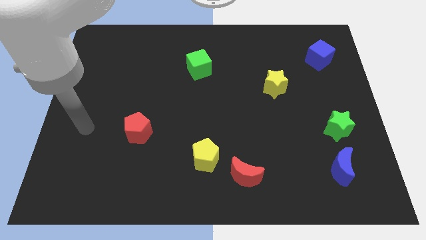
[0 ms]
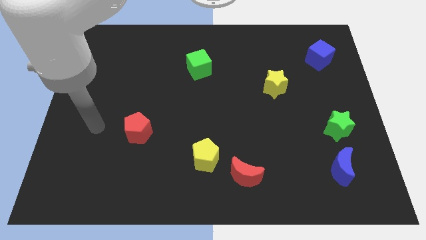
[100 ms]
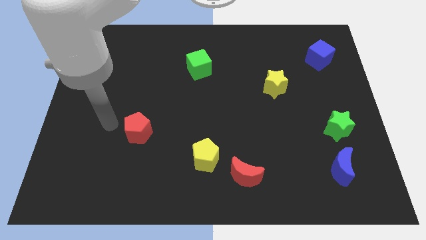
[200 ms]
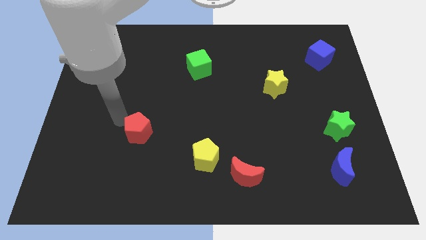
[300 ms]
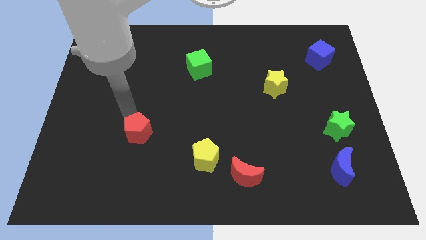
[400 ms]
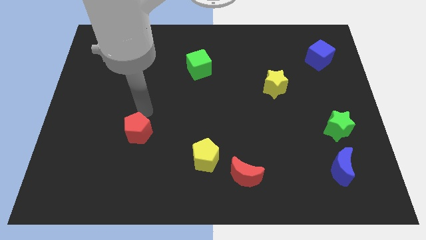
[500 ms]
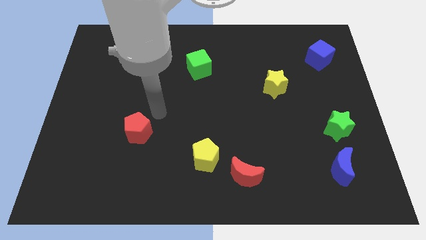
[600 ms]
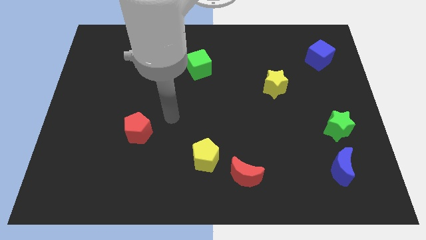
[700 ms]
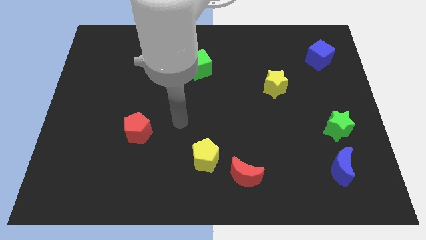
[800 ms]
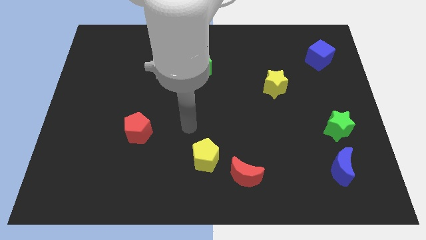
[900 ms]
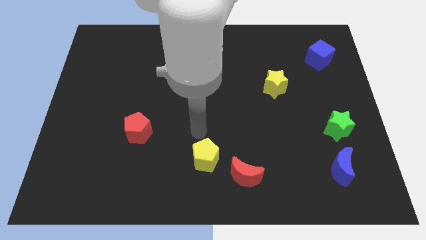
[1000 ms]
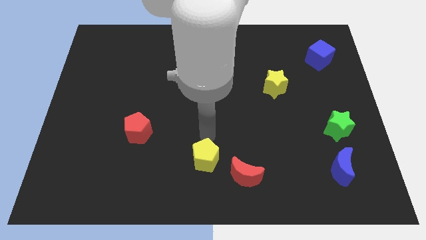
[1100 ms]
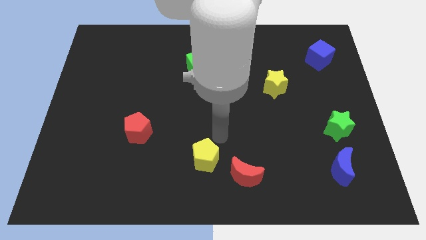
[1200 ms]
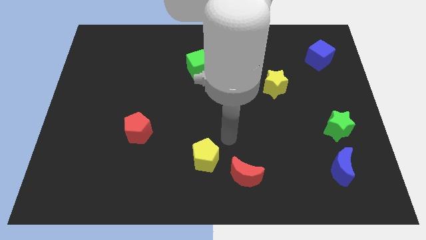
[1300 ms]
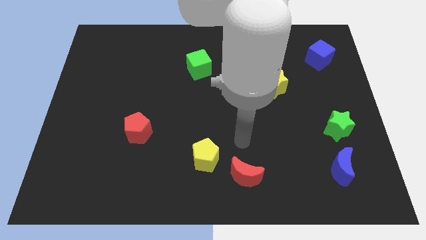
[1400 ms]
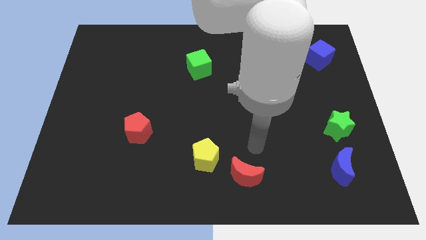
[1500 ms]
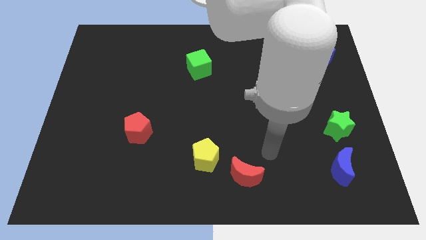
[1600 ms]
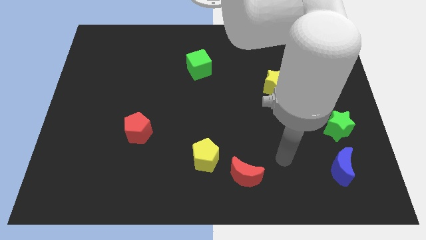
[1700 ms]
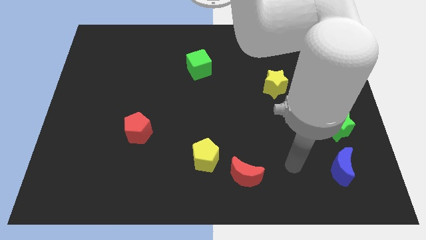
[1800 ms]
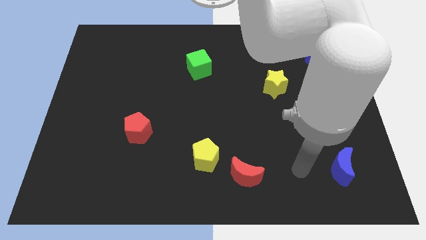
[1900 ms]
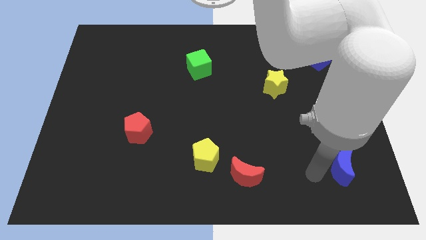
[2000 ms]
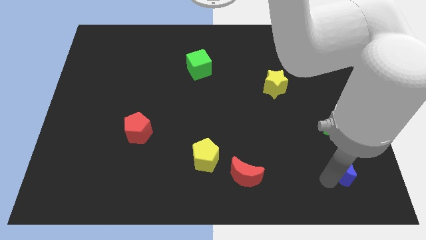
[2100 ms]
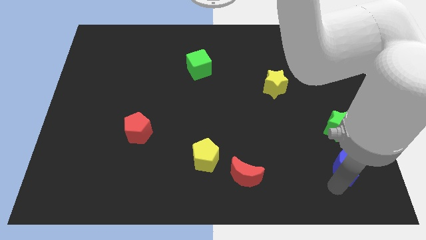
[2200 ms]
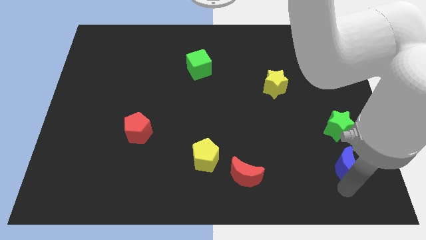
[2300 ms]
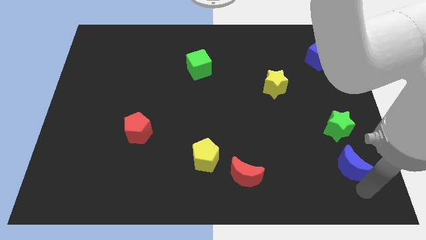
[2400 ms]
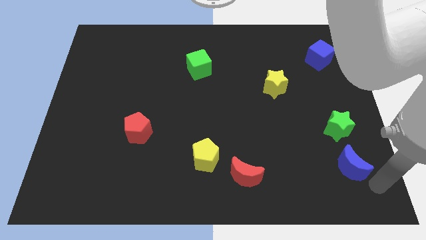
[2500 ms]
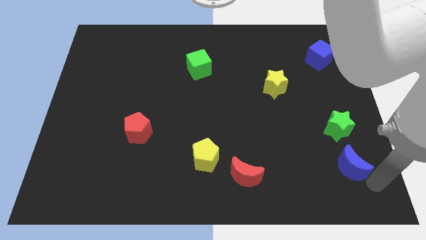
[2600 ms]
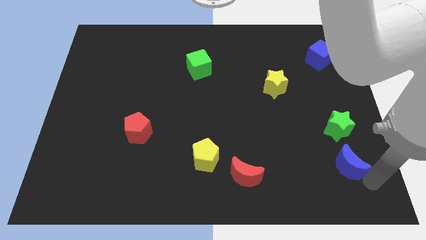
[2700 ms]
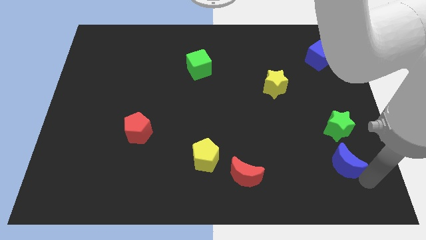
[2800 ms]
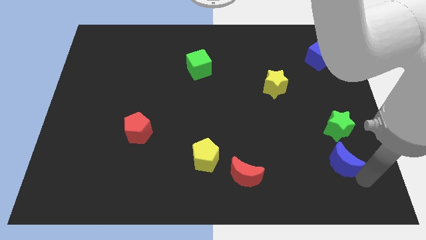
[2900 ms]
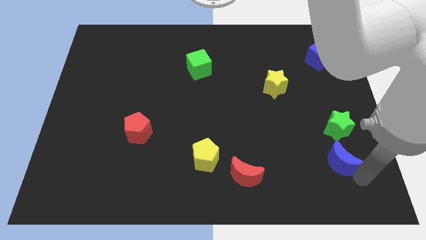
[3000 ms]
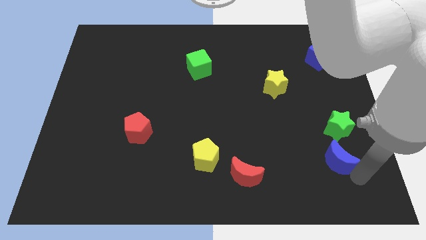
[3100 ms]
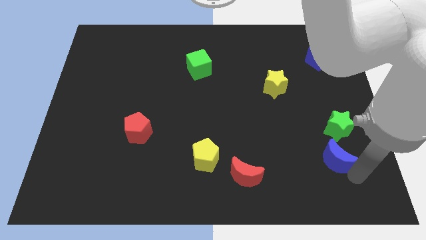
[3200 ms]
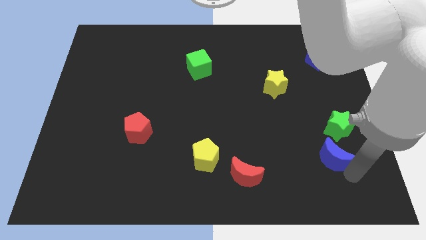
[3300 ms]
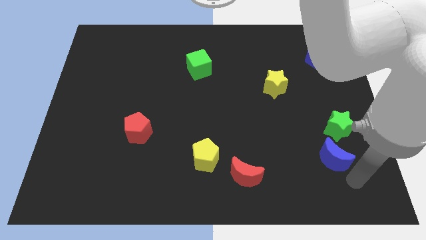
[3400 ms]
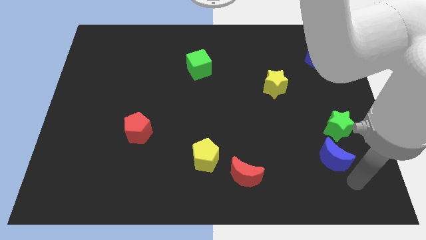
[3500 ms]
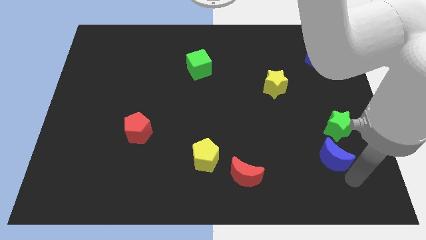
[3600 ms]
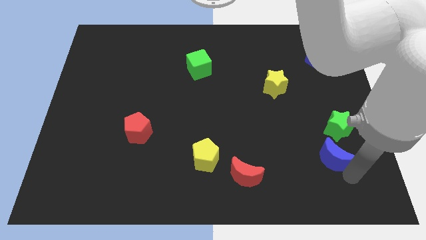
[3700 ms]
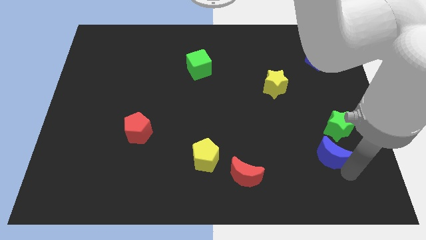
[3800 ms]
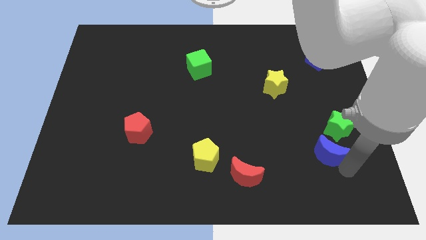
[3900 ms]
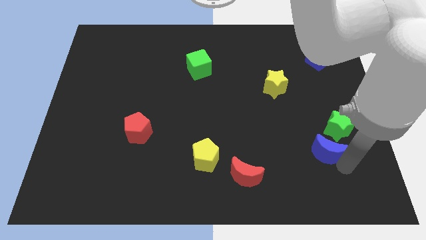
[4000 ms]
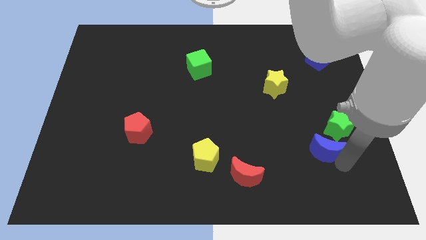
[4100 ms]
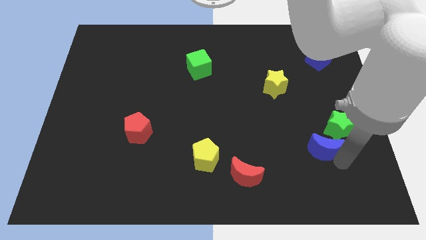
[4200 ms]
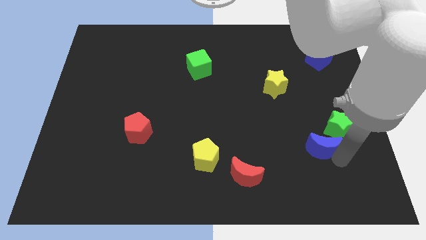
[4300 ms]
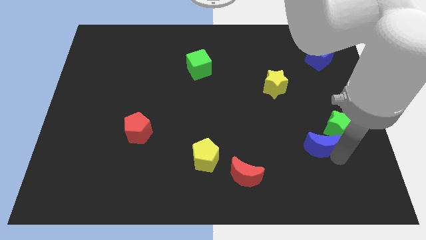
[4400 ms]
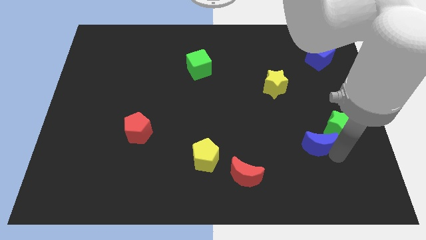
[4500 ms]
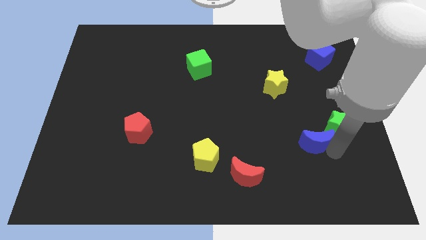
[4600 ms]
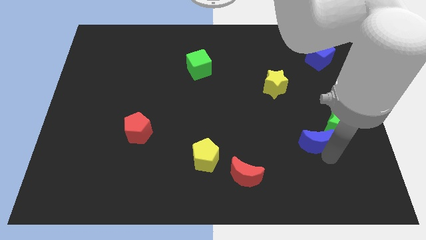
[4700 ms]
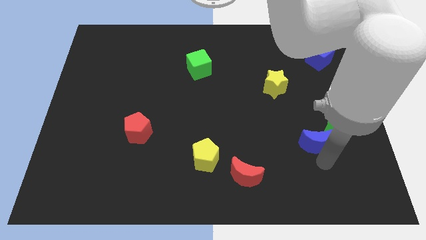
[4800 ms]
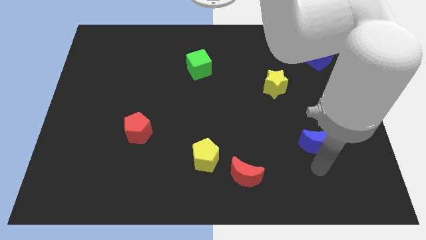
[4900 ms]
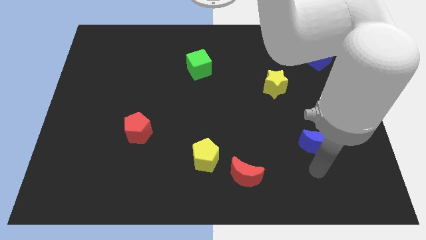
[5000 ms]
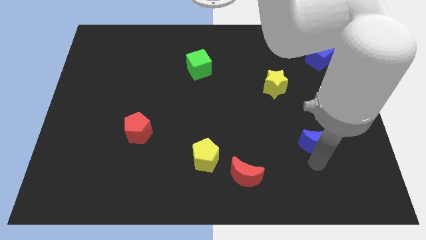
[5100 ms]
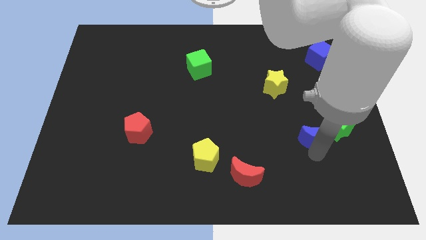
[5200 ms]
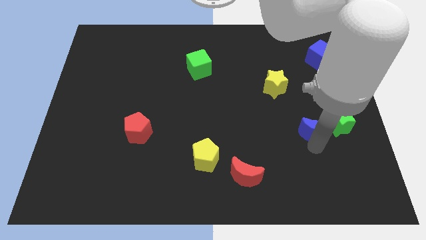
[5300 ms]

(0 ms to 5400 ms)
push the blue moon somewhat up

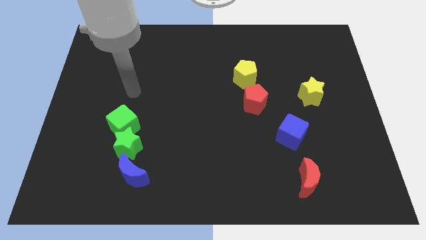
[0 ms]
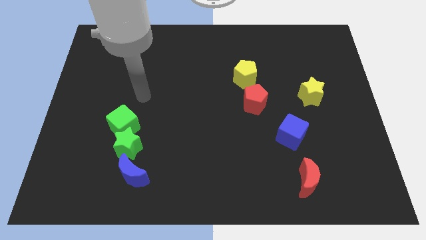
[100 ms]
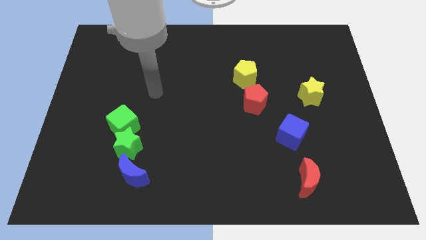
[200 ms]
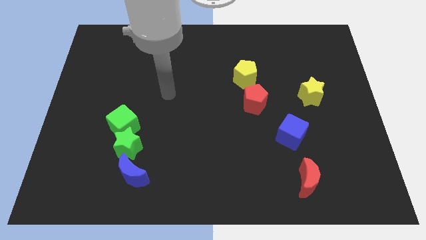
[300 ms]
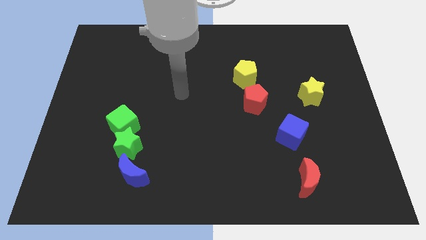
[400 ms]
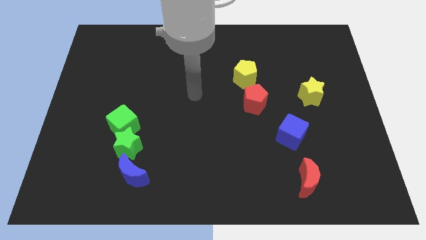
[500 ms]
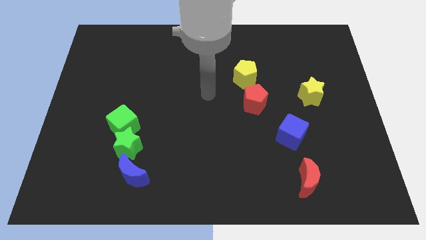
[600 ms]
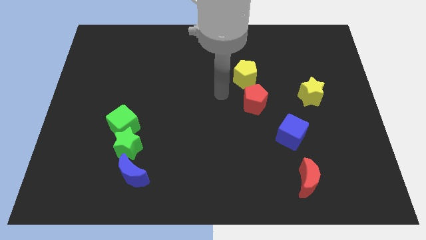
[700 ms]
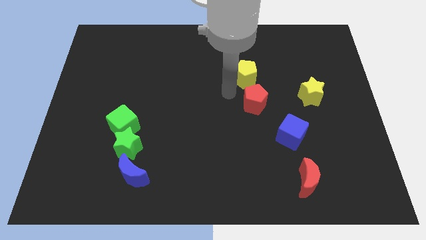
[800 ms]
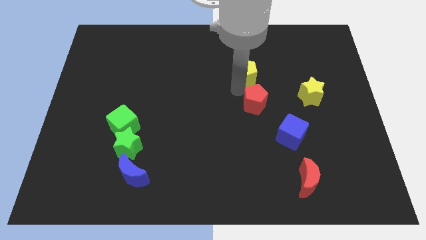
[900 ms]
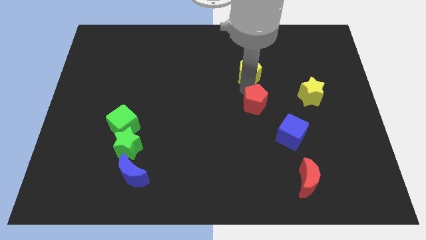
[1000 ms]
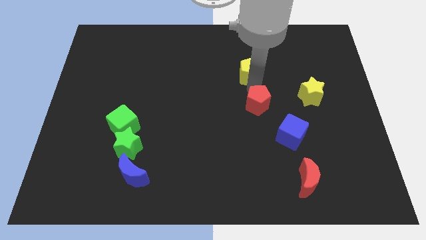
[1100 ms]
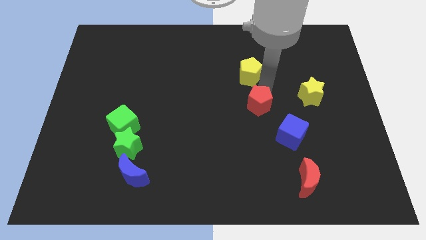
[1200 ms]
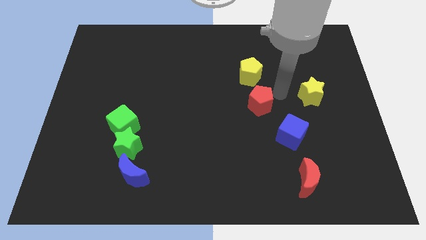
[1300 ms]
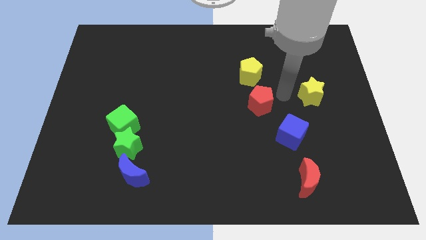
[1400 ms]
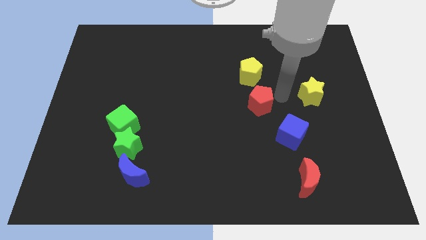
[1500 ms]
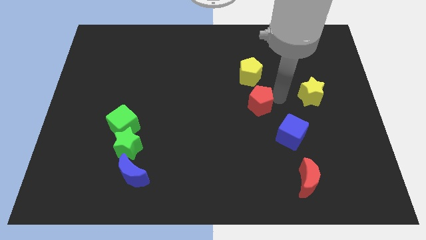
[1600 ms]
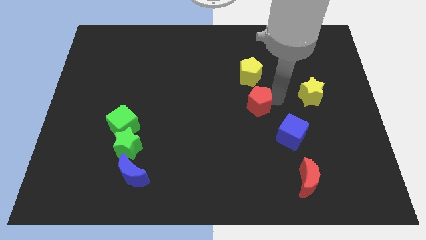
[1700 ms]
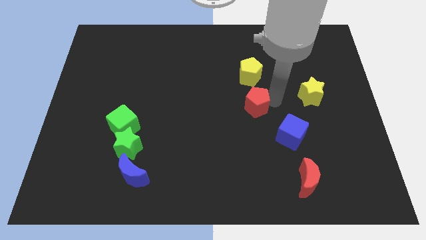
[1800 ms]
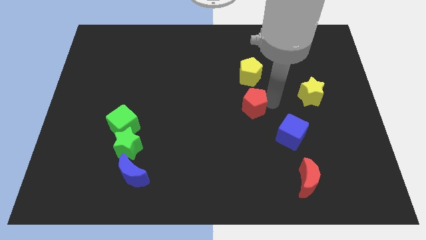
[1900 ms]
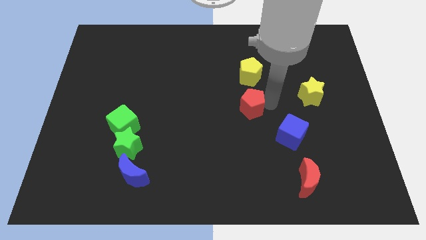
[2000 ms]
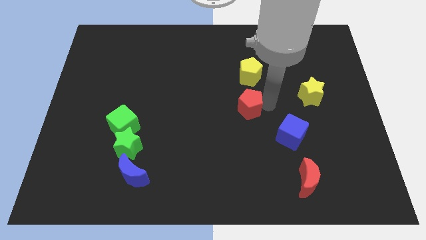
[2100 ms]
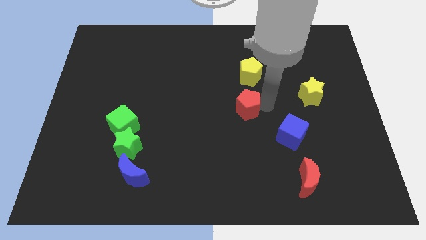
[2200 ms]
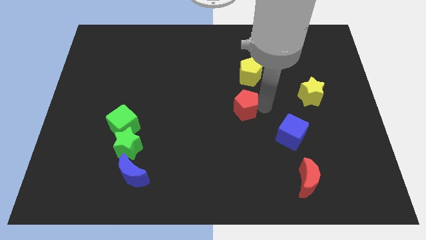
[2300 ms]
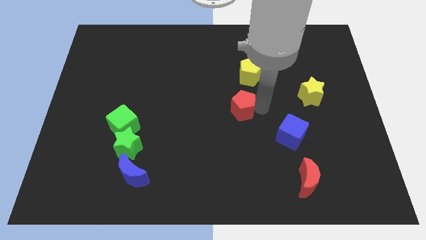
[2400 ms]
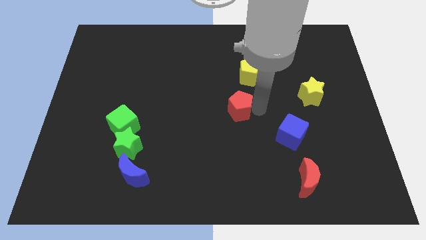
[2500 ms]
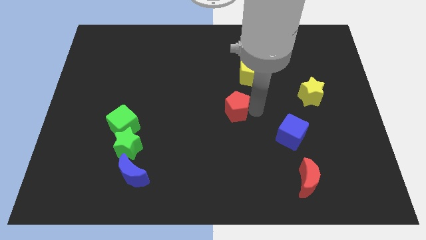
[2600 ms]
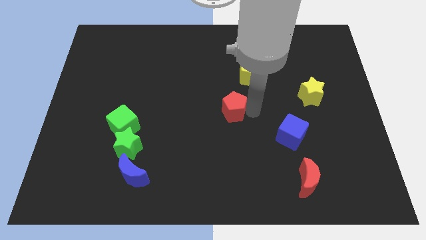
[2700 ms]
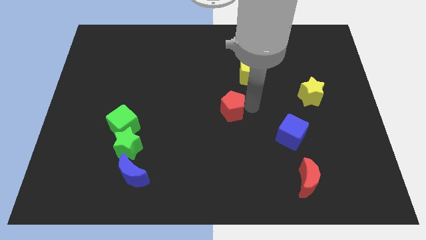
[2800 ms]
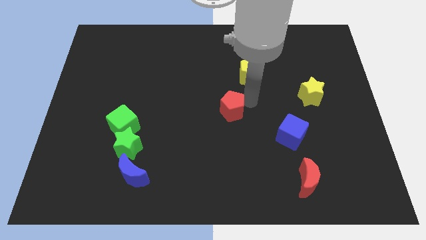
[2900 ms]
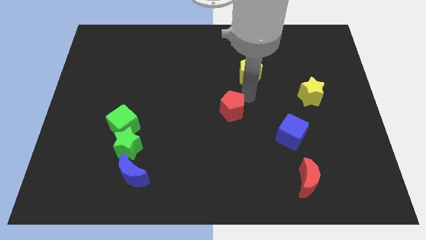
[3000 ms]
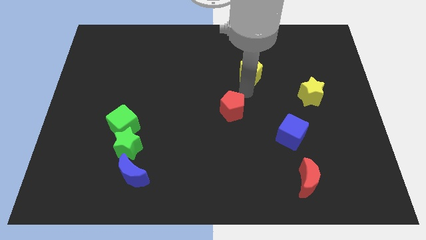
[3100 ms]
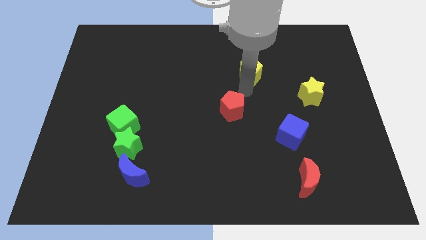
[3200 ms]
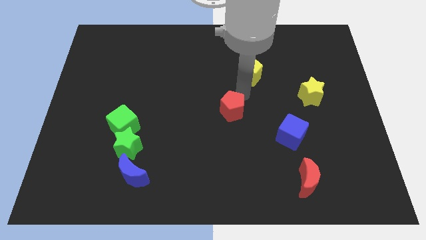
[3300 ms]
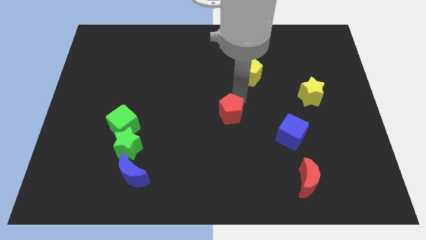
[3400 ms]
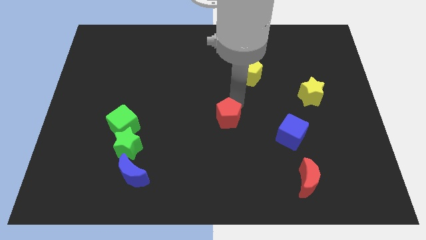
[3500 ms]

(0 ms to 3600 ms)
slightly move the red pentagon down and left
